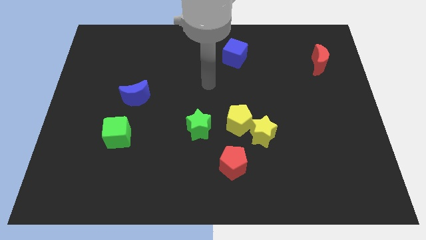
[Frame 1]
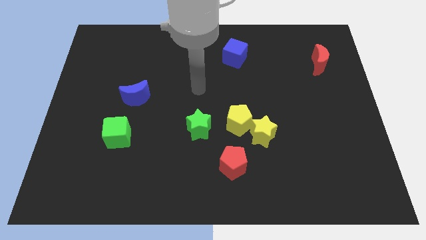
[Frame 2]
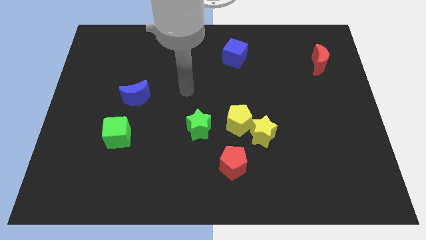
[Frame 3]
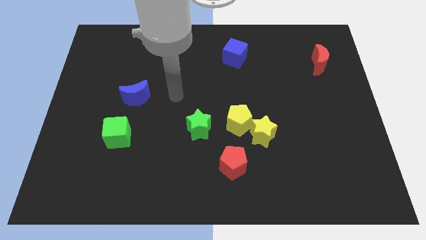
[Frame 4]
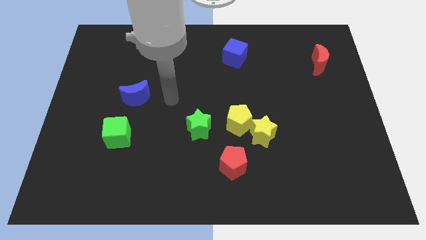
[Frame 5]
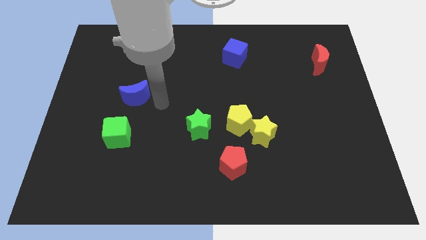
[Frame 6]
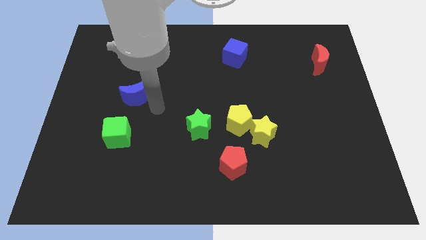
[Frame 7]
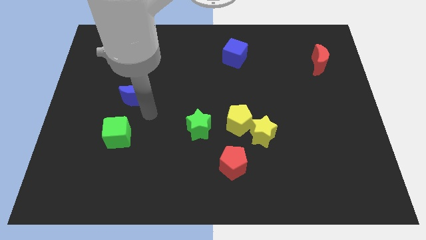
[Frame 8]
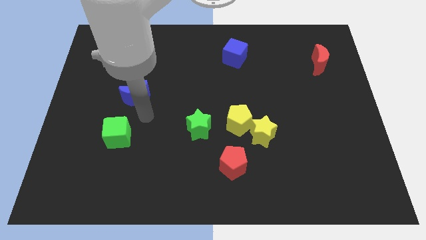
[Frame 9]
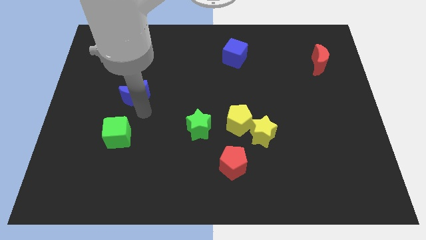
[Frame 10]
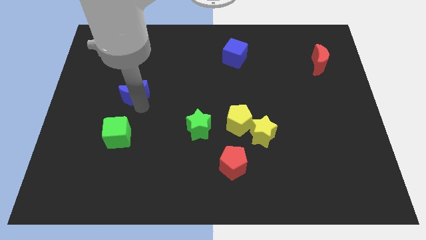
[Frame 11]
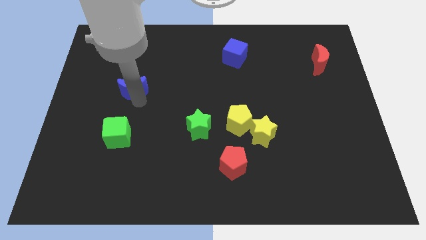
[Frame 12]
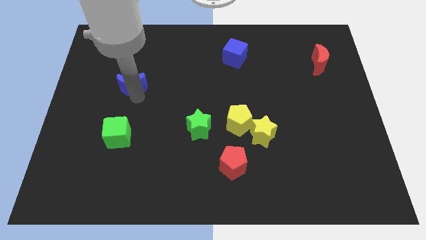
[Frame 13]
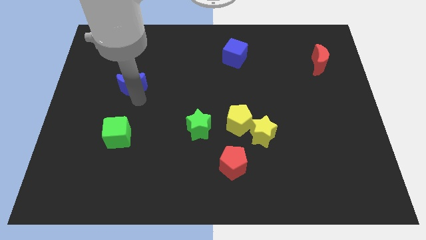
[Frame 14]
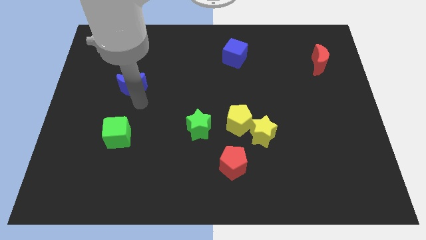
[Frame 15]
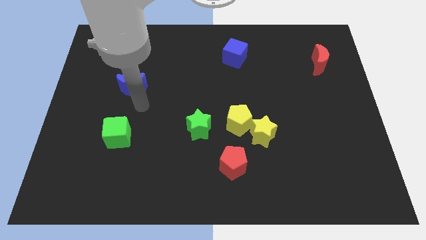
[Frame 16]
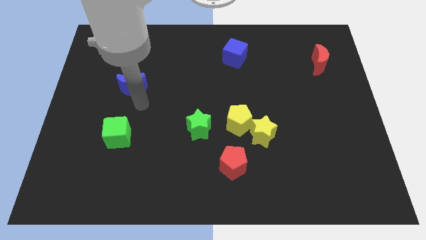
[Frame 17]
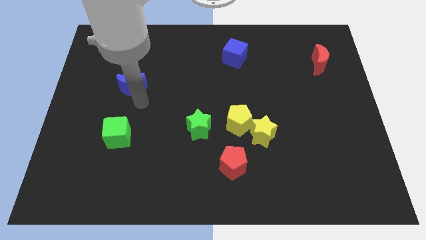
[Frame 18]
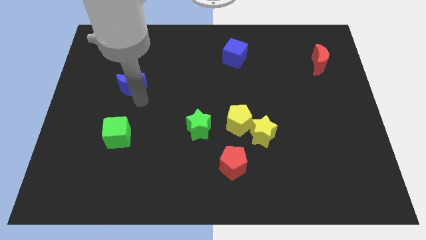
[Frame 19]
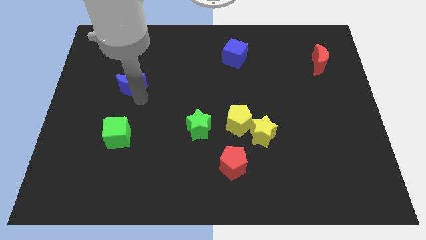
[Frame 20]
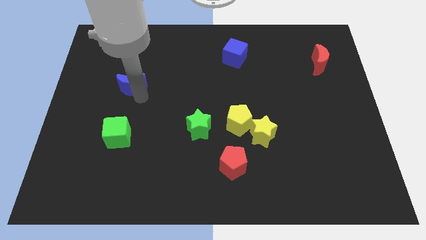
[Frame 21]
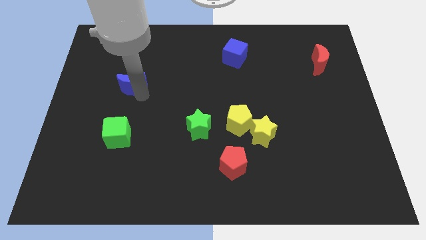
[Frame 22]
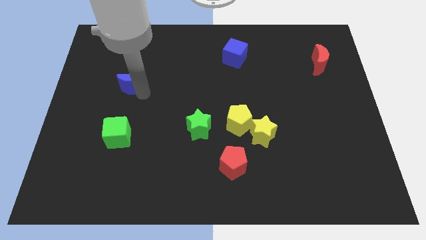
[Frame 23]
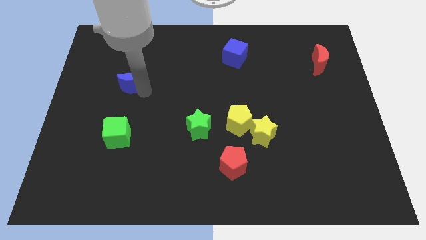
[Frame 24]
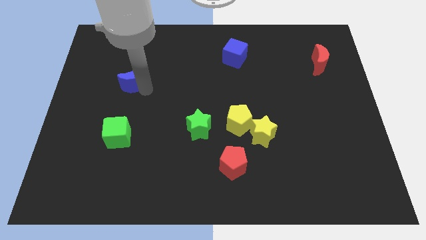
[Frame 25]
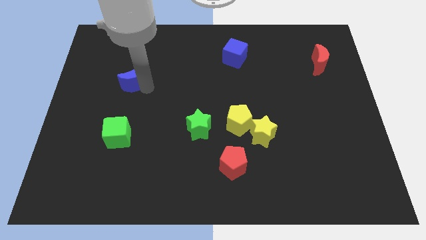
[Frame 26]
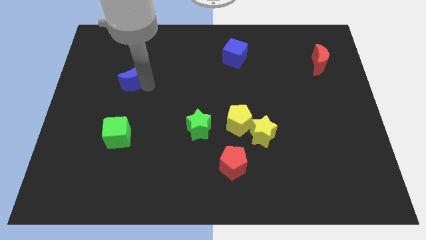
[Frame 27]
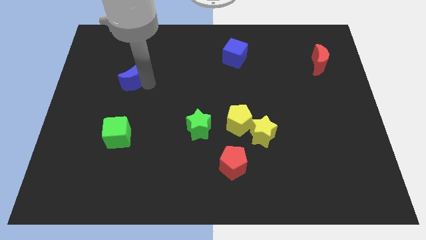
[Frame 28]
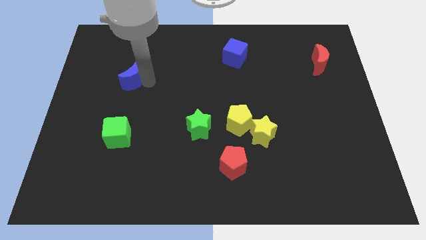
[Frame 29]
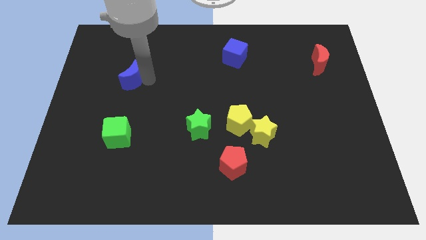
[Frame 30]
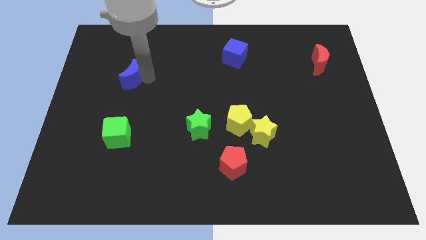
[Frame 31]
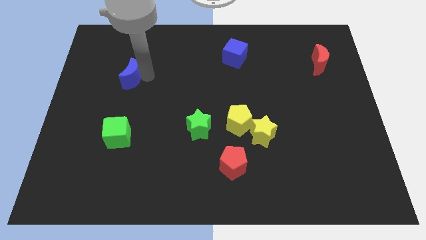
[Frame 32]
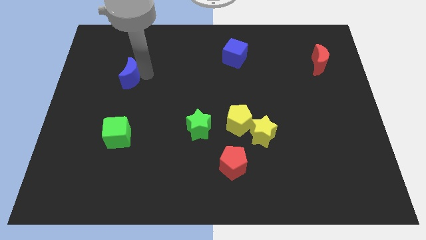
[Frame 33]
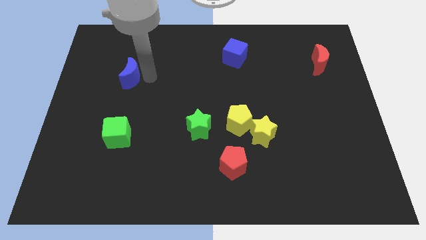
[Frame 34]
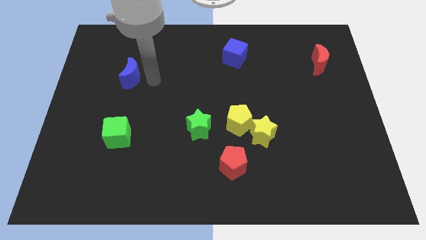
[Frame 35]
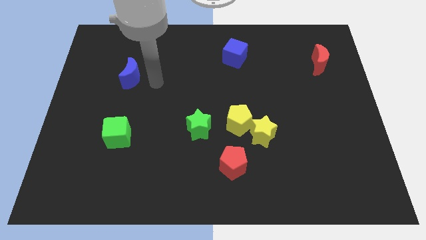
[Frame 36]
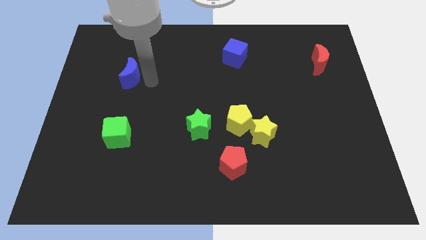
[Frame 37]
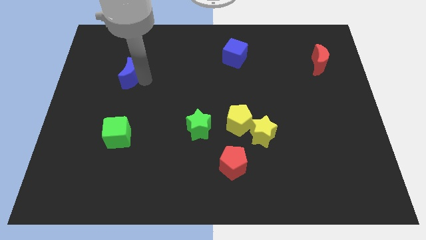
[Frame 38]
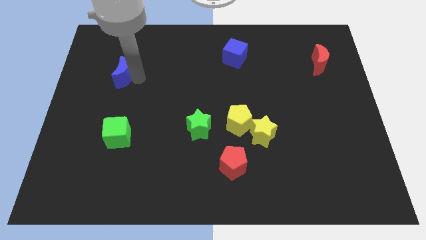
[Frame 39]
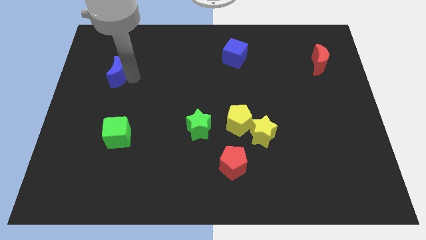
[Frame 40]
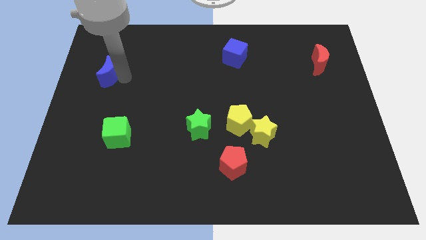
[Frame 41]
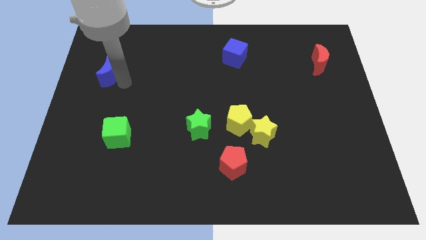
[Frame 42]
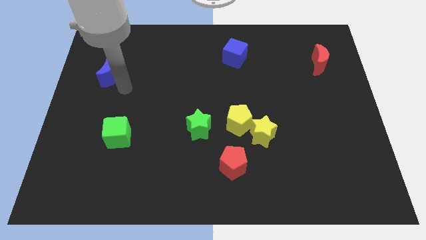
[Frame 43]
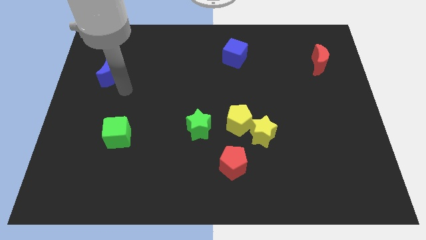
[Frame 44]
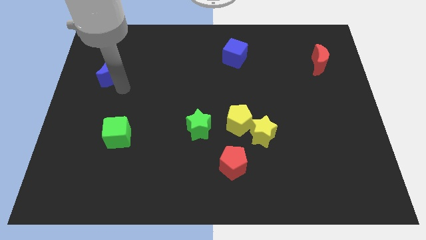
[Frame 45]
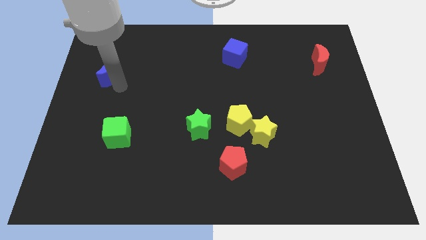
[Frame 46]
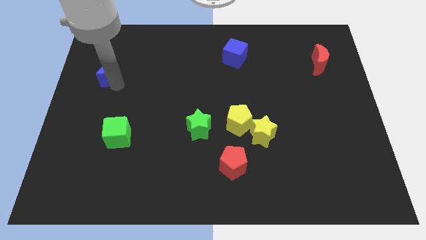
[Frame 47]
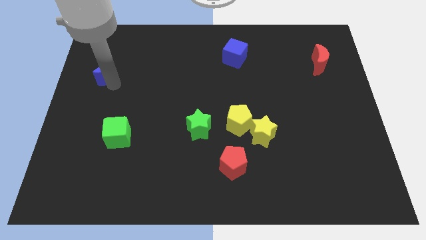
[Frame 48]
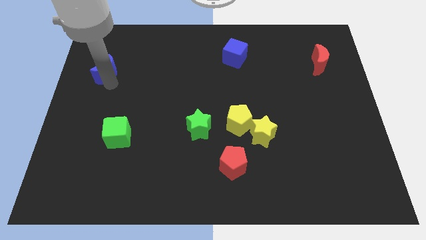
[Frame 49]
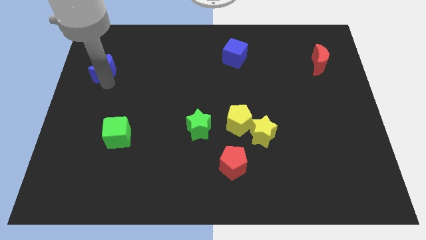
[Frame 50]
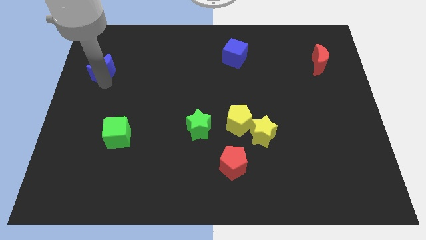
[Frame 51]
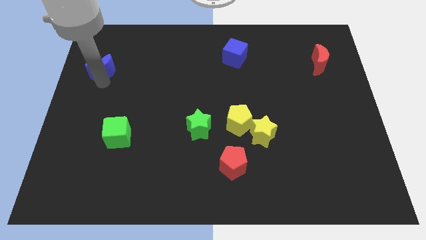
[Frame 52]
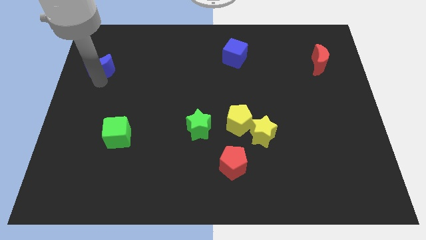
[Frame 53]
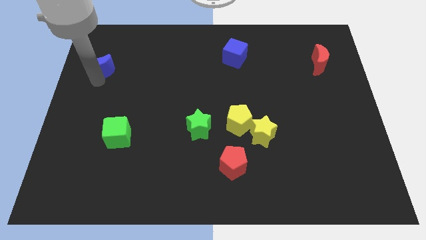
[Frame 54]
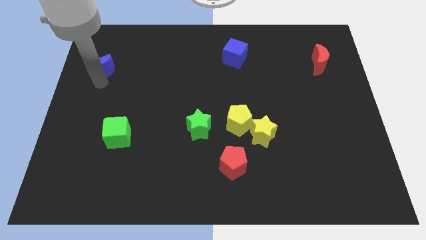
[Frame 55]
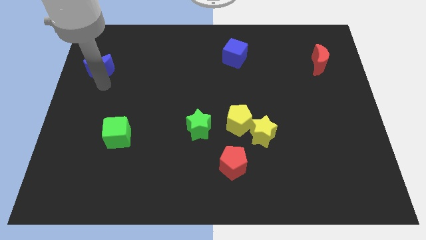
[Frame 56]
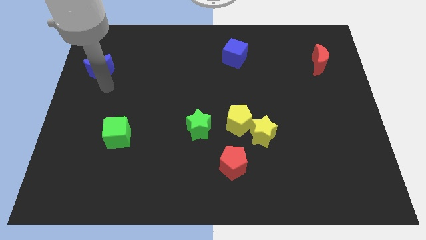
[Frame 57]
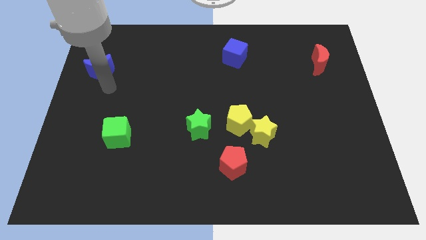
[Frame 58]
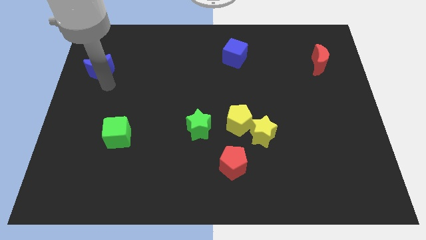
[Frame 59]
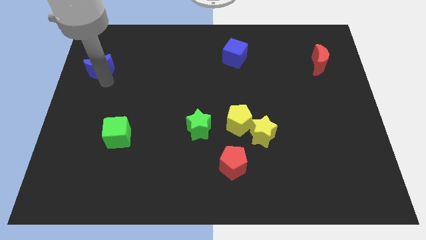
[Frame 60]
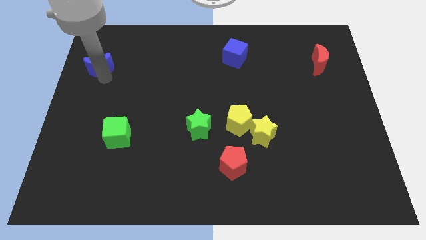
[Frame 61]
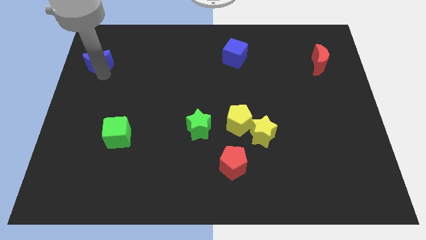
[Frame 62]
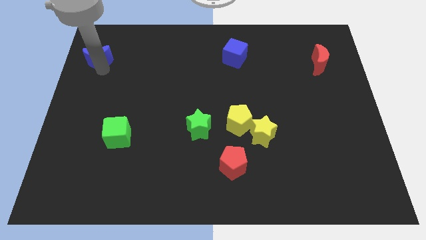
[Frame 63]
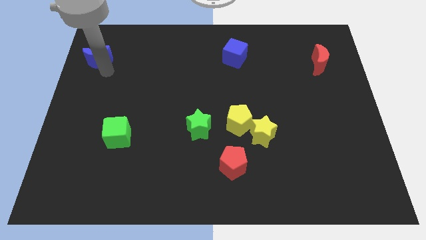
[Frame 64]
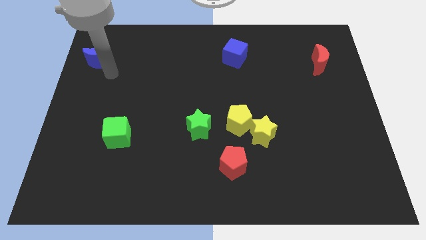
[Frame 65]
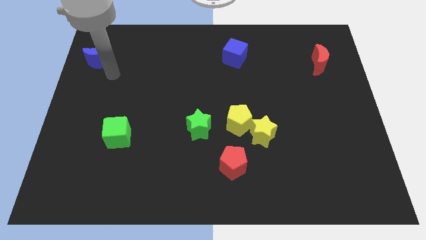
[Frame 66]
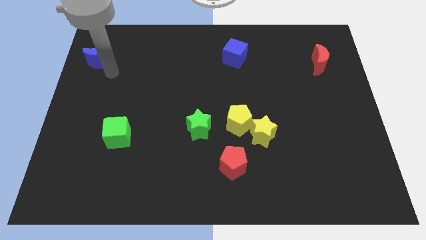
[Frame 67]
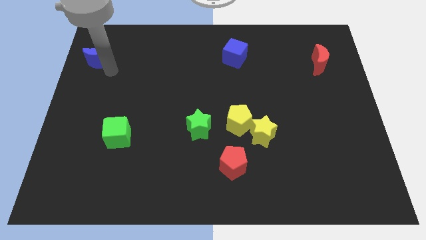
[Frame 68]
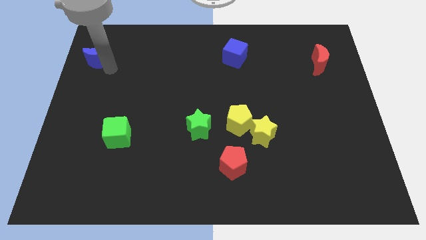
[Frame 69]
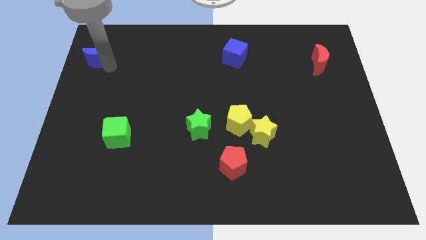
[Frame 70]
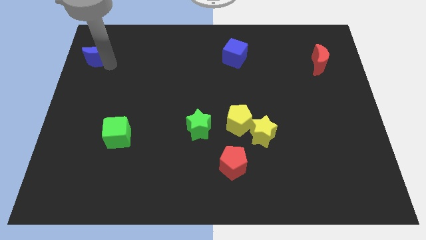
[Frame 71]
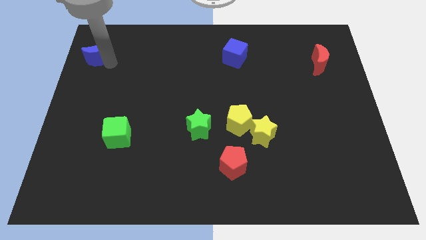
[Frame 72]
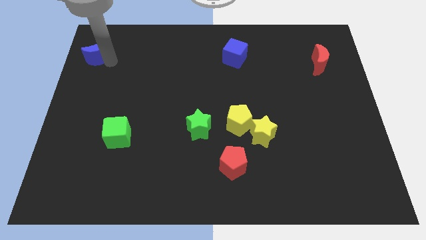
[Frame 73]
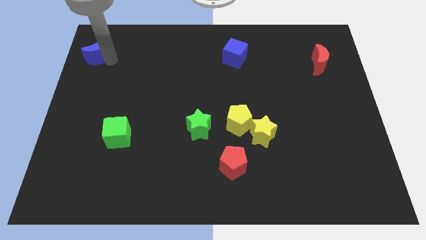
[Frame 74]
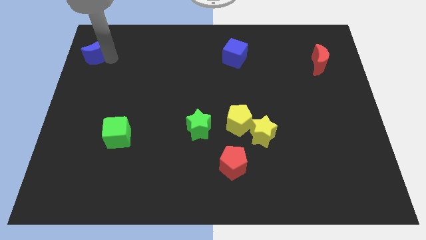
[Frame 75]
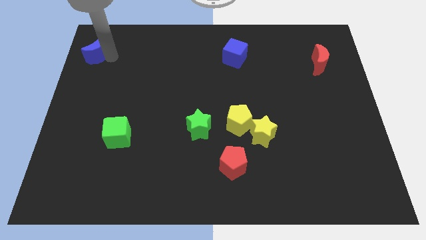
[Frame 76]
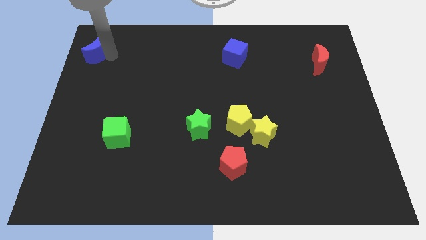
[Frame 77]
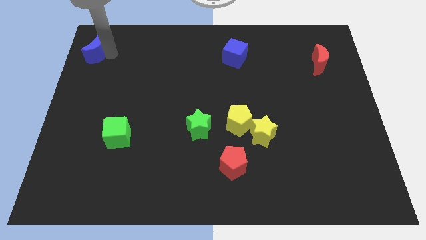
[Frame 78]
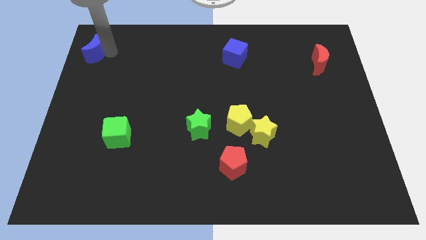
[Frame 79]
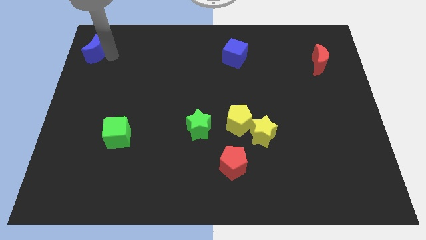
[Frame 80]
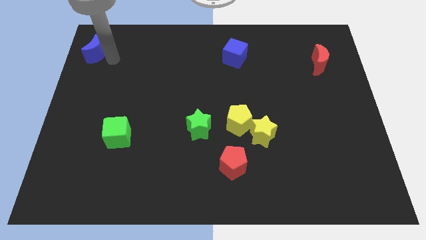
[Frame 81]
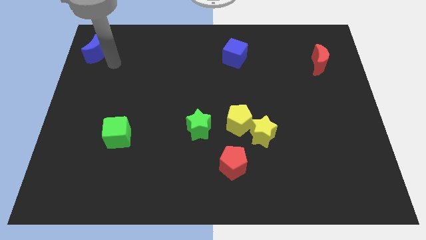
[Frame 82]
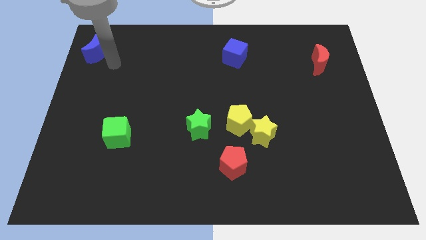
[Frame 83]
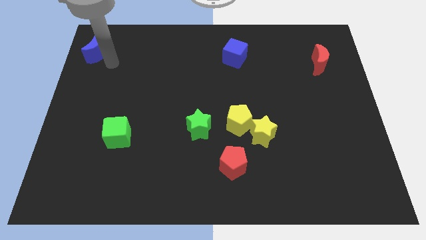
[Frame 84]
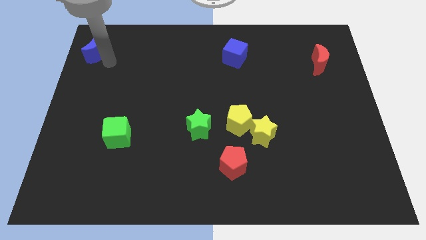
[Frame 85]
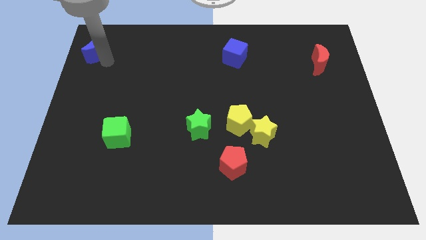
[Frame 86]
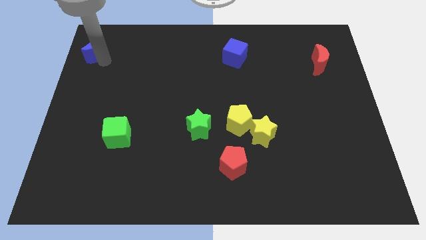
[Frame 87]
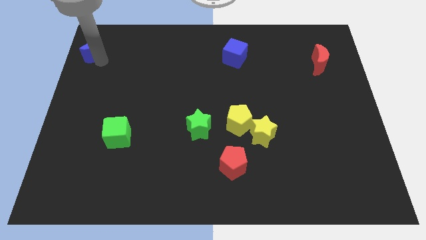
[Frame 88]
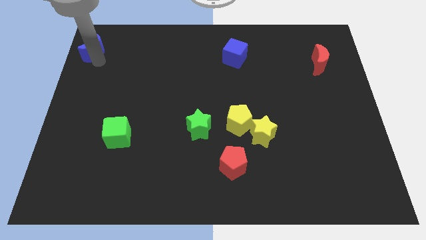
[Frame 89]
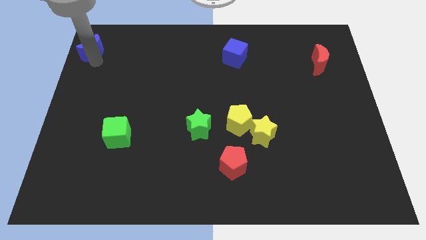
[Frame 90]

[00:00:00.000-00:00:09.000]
put the blue moon to the top left corner
